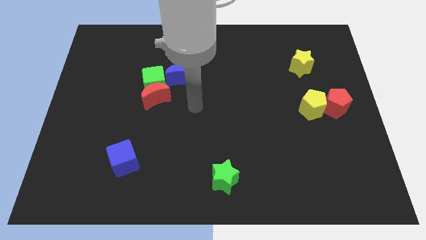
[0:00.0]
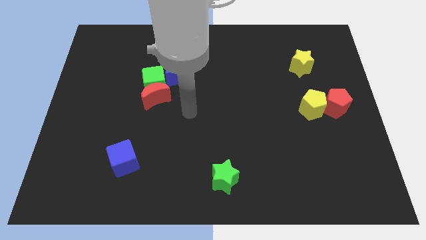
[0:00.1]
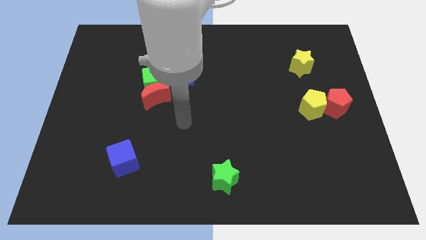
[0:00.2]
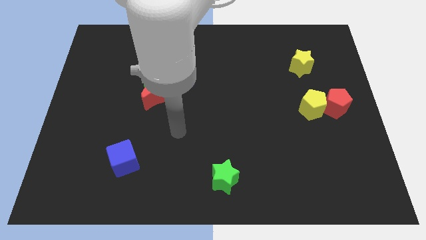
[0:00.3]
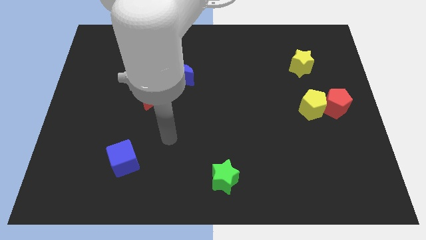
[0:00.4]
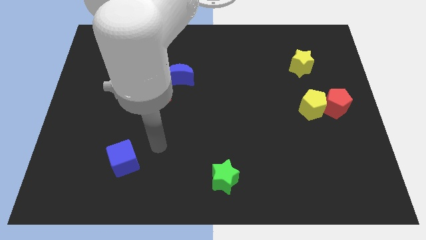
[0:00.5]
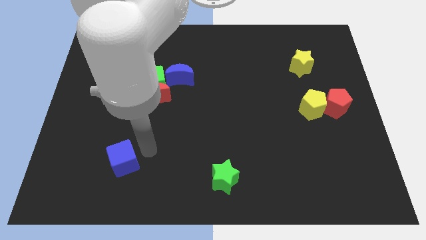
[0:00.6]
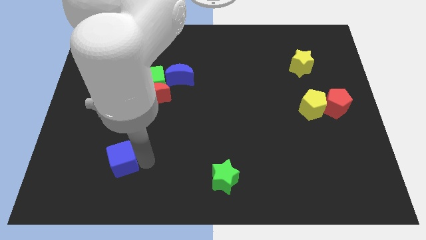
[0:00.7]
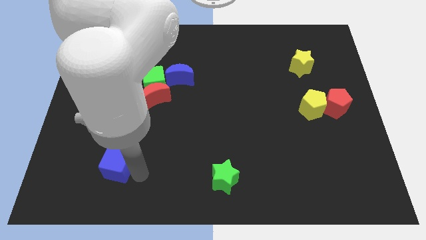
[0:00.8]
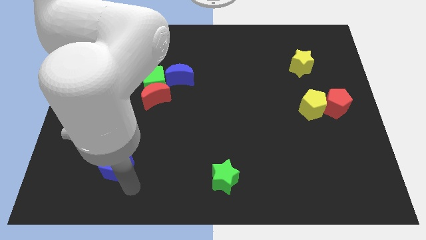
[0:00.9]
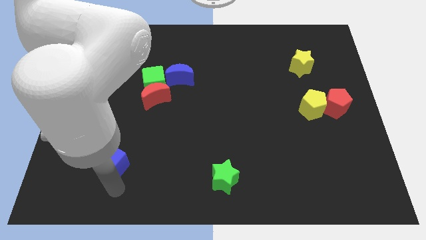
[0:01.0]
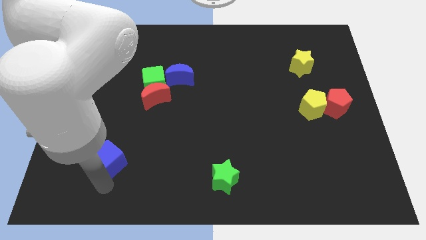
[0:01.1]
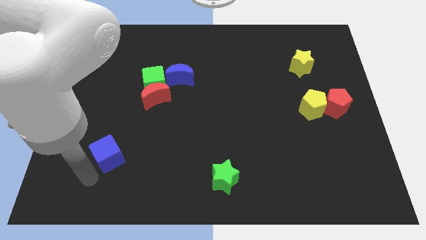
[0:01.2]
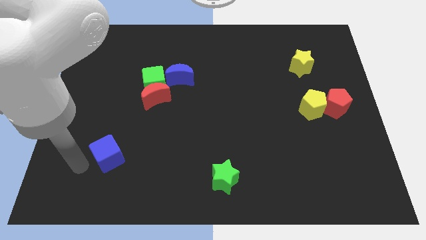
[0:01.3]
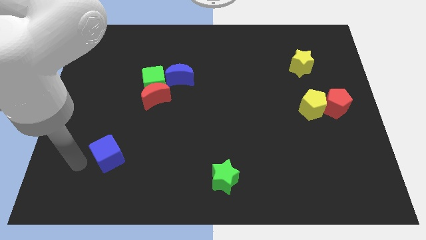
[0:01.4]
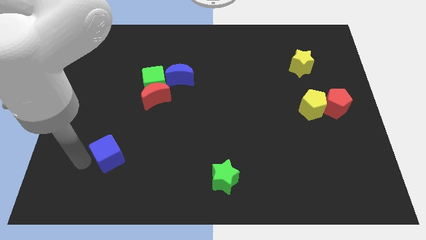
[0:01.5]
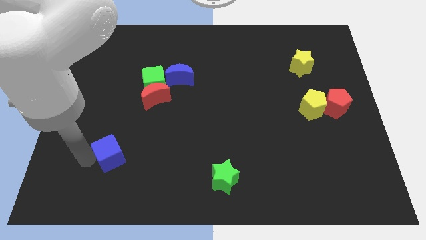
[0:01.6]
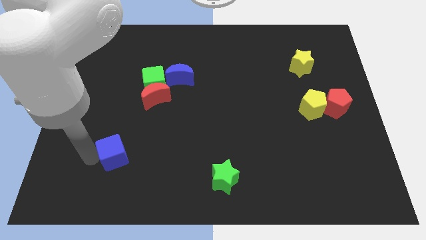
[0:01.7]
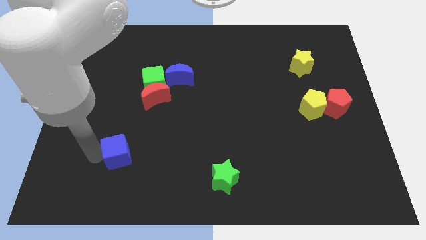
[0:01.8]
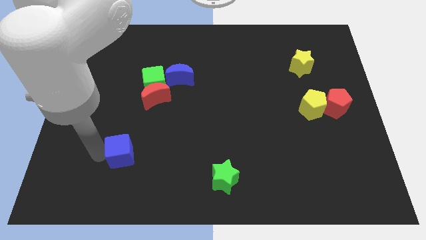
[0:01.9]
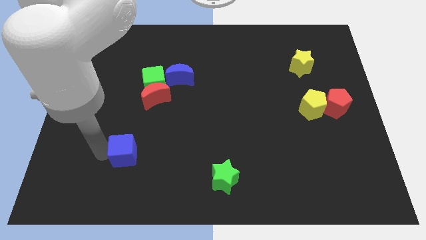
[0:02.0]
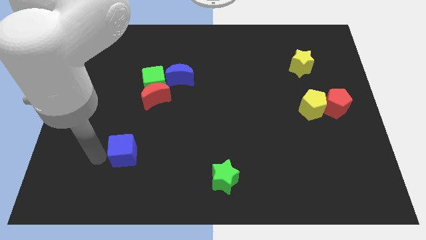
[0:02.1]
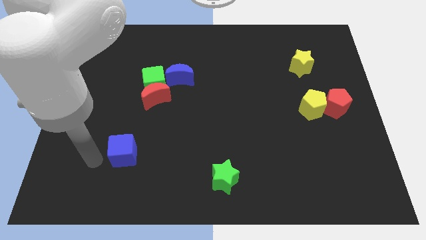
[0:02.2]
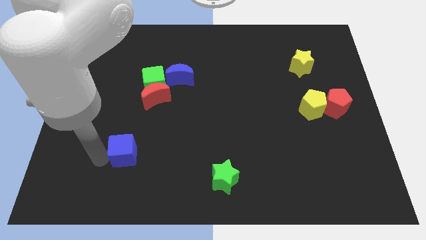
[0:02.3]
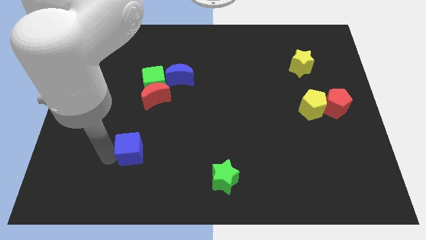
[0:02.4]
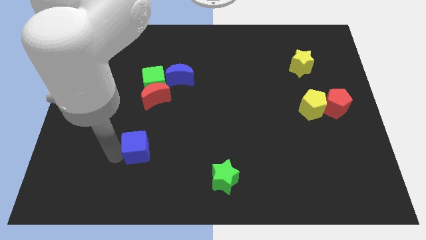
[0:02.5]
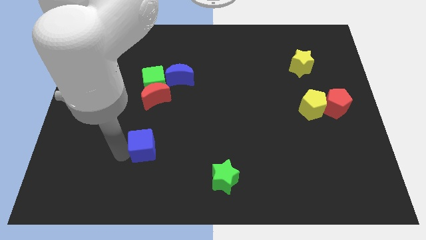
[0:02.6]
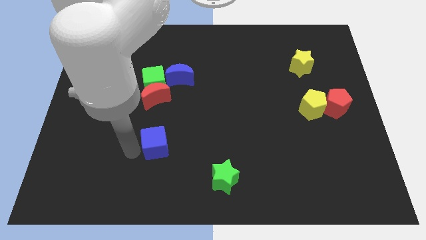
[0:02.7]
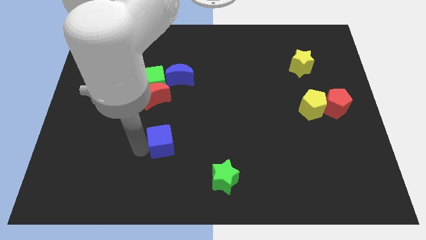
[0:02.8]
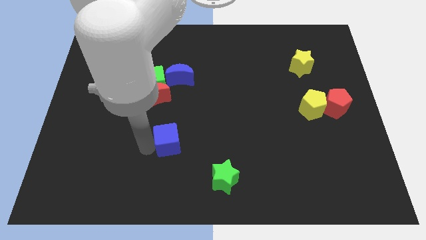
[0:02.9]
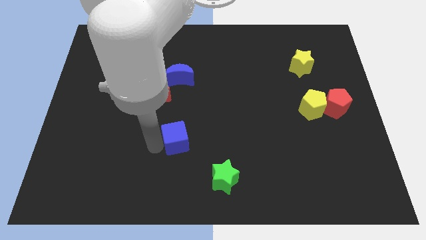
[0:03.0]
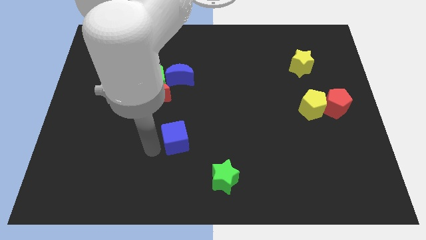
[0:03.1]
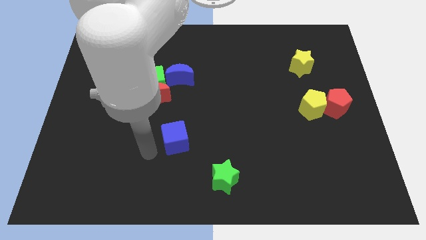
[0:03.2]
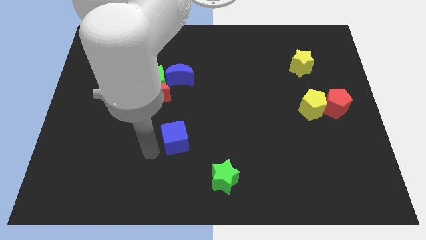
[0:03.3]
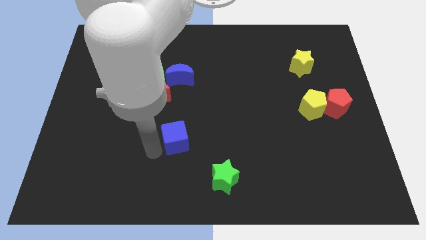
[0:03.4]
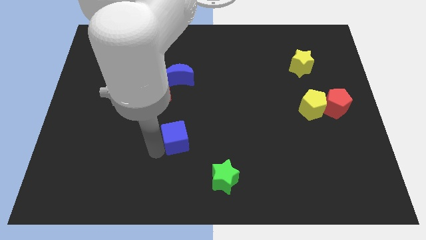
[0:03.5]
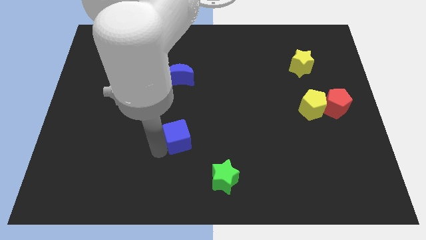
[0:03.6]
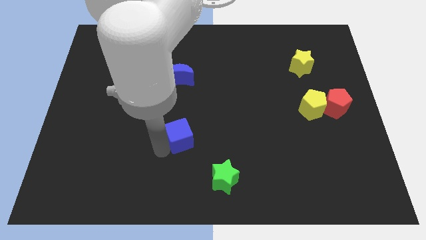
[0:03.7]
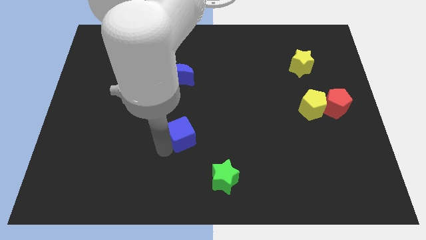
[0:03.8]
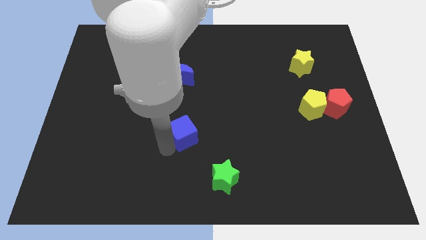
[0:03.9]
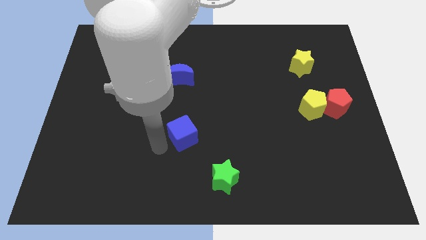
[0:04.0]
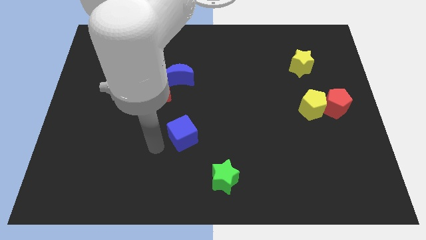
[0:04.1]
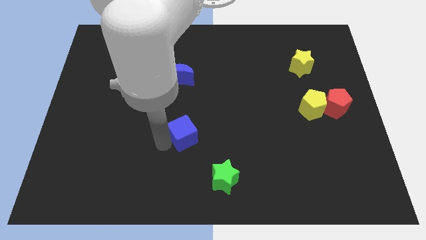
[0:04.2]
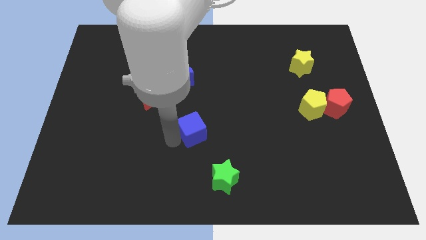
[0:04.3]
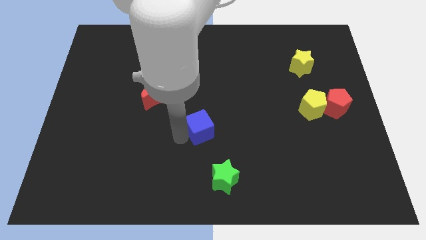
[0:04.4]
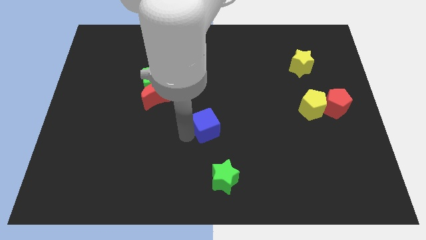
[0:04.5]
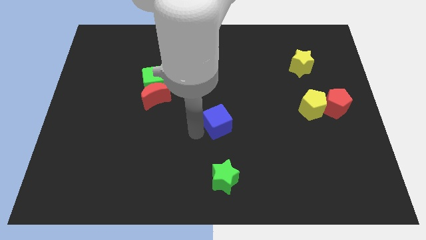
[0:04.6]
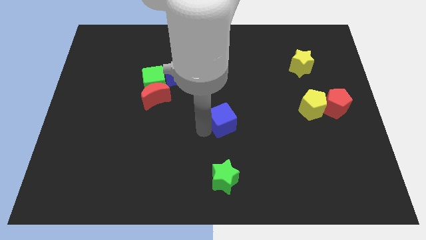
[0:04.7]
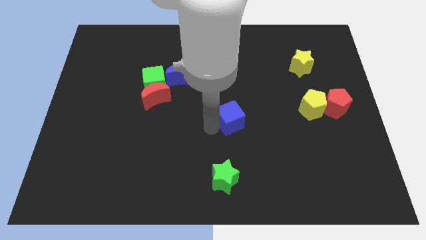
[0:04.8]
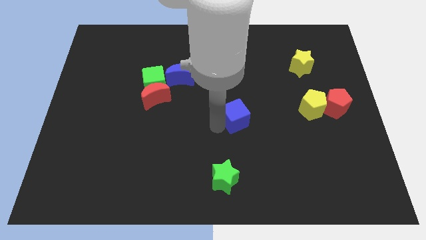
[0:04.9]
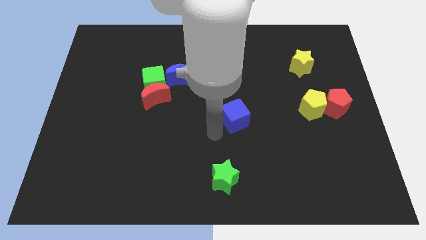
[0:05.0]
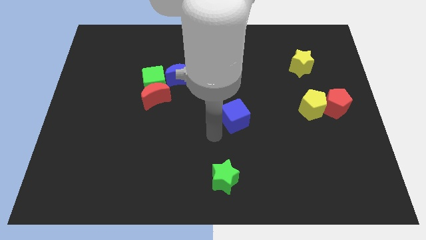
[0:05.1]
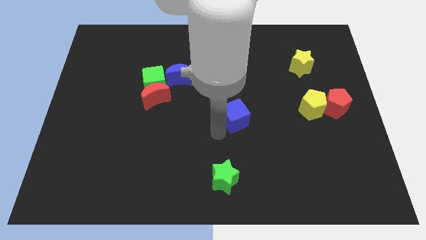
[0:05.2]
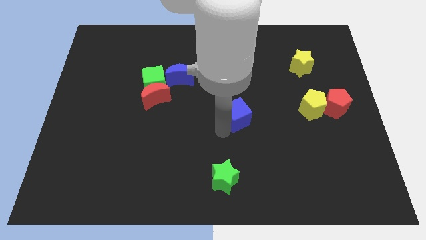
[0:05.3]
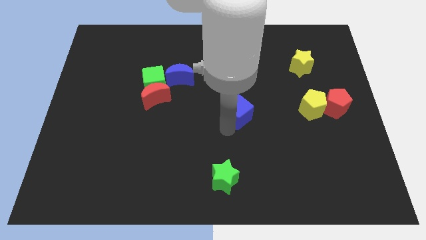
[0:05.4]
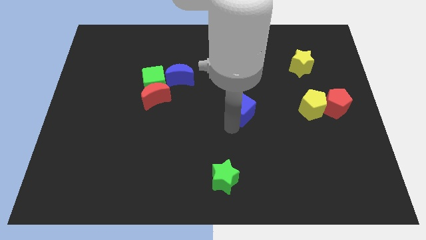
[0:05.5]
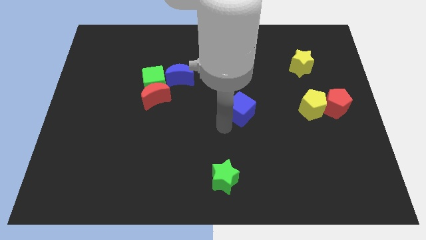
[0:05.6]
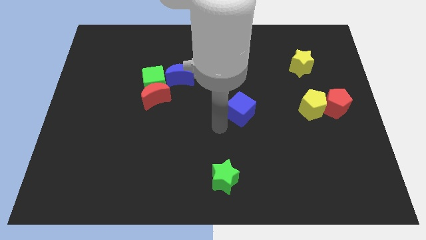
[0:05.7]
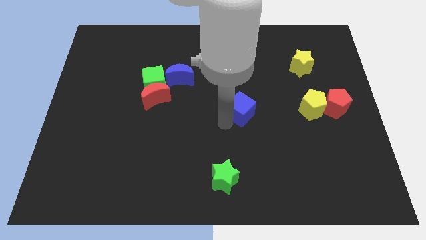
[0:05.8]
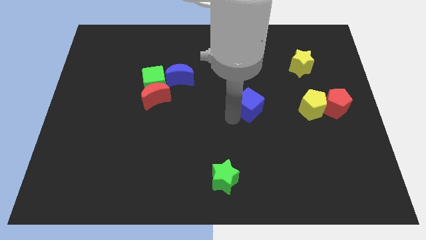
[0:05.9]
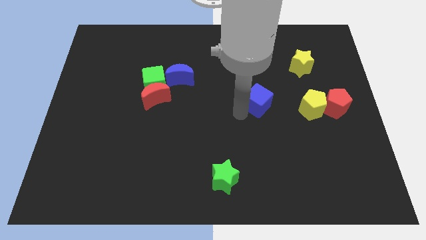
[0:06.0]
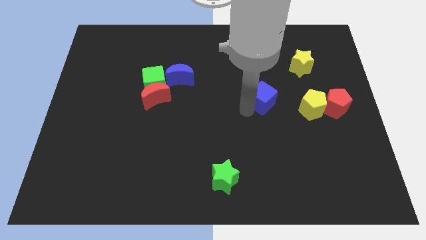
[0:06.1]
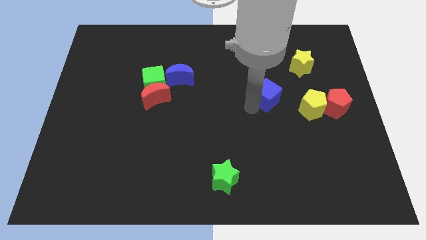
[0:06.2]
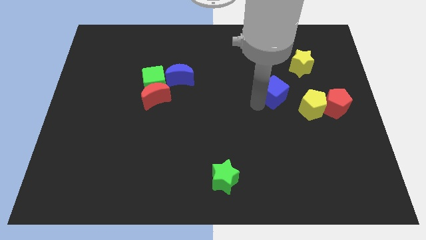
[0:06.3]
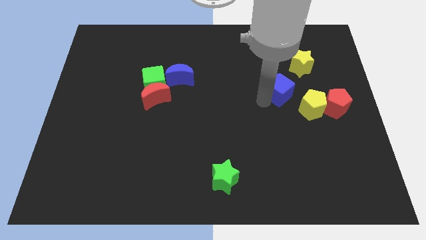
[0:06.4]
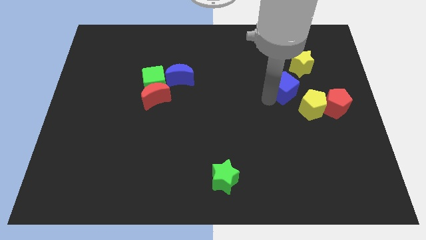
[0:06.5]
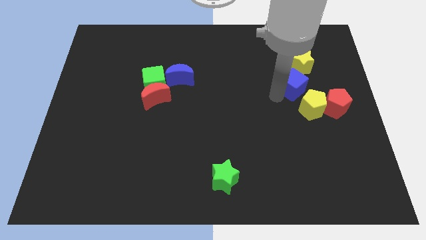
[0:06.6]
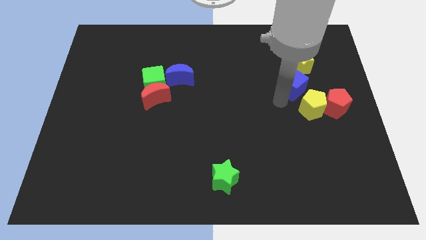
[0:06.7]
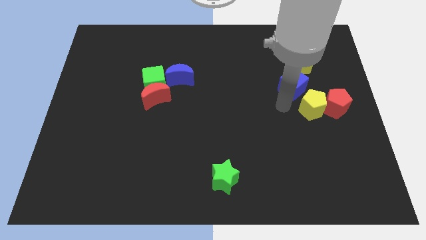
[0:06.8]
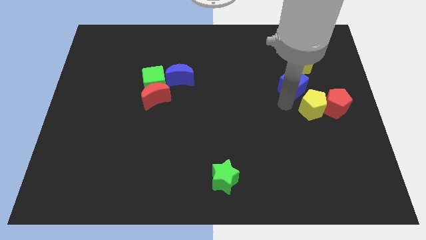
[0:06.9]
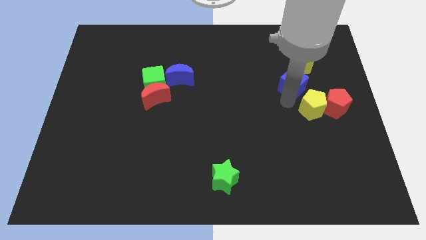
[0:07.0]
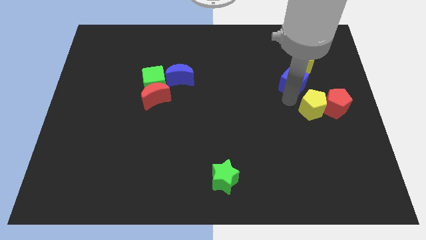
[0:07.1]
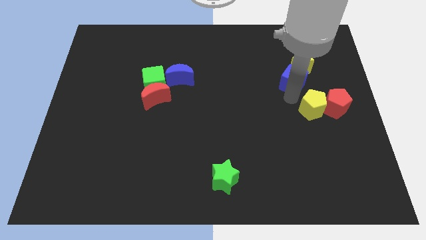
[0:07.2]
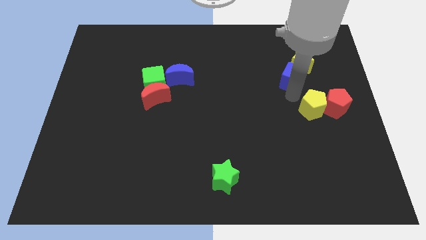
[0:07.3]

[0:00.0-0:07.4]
push the blue cube to the yellow star

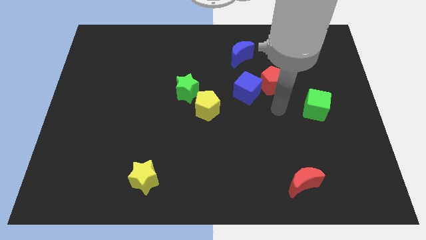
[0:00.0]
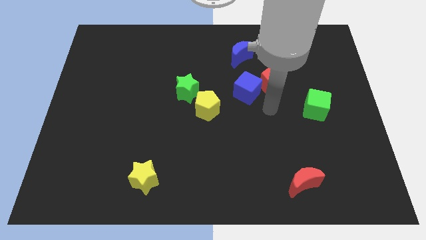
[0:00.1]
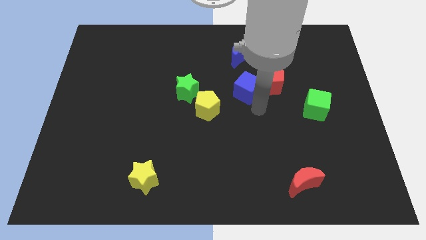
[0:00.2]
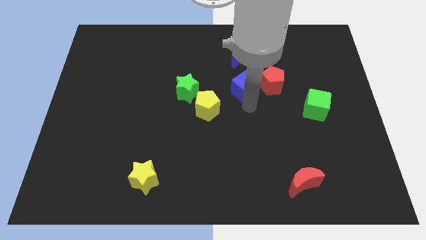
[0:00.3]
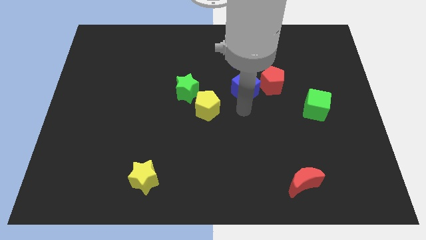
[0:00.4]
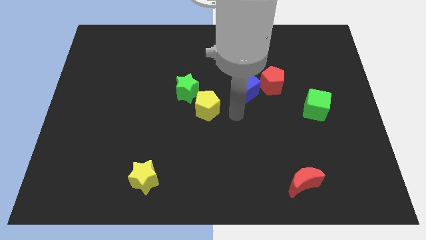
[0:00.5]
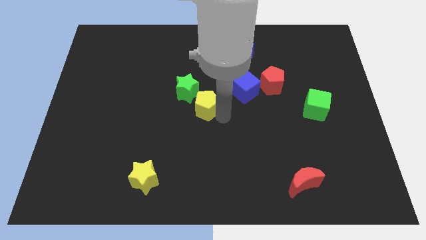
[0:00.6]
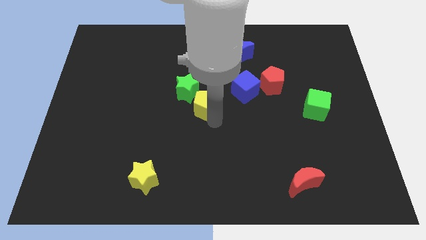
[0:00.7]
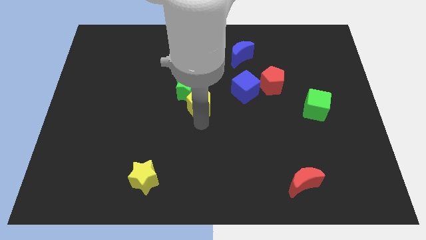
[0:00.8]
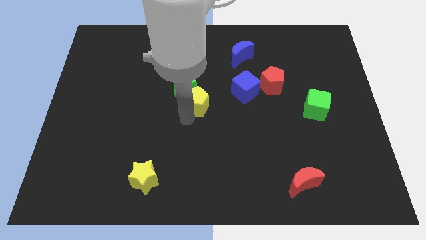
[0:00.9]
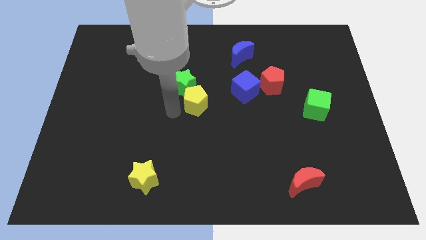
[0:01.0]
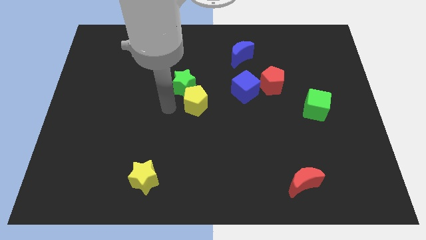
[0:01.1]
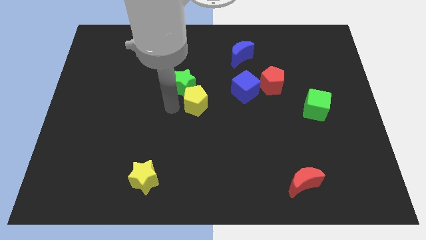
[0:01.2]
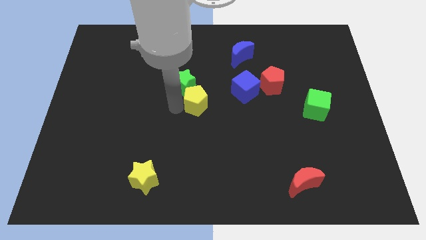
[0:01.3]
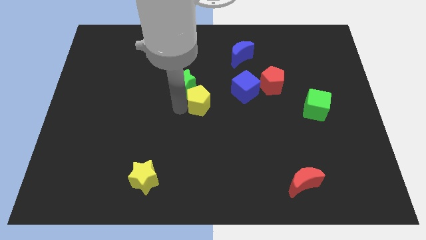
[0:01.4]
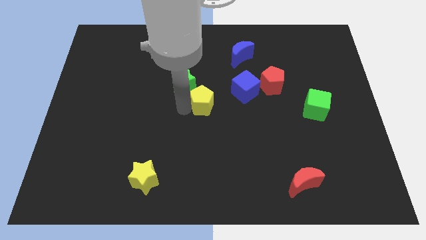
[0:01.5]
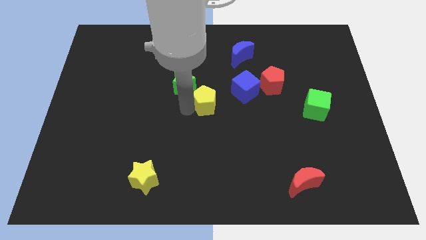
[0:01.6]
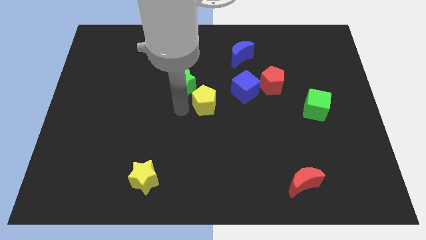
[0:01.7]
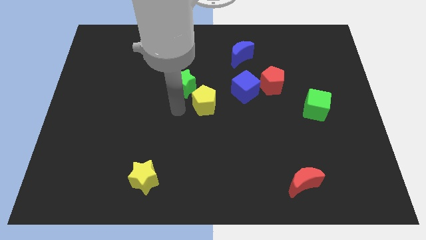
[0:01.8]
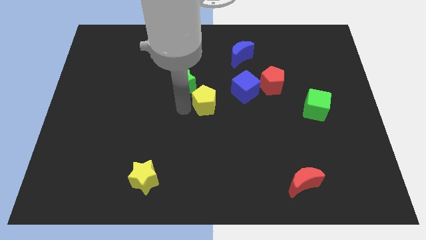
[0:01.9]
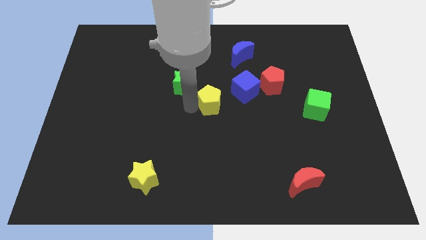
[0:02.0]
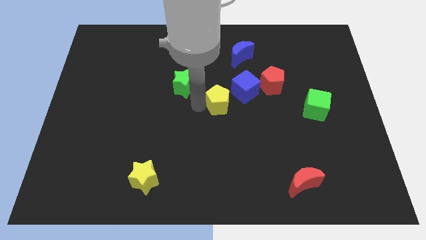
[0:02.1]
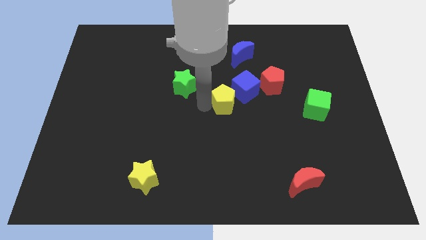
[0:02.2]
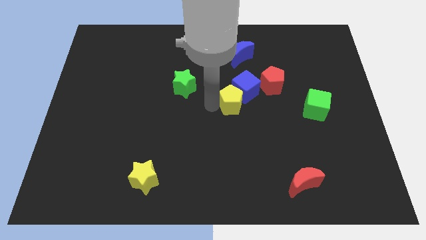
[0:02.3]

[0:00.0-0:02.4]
move the yellow pentagon next to the blue cube
